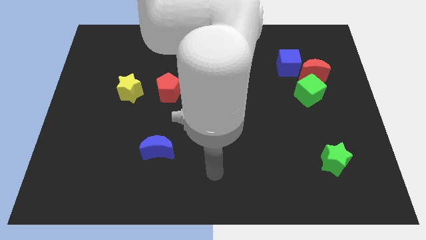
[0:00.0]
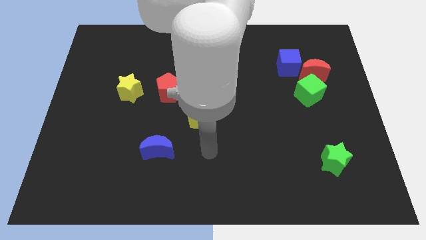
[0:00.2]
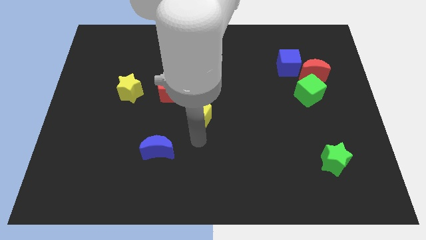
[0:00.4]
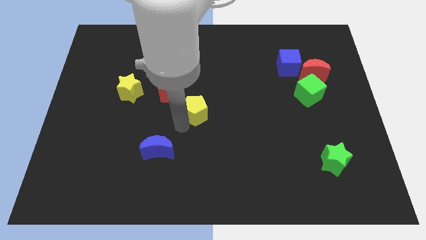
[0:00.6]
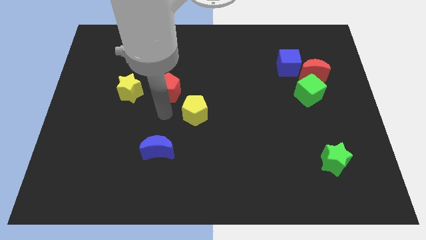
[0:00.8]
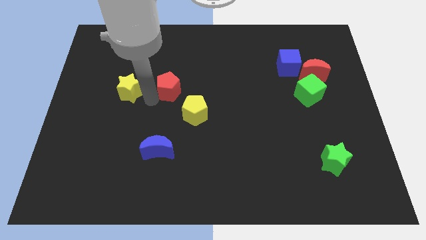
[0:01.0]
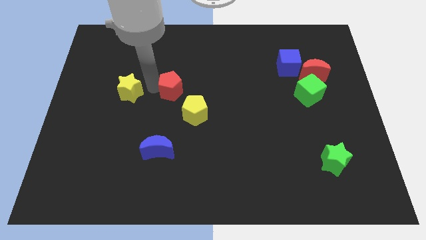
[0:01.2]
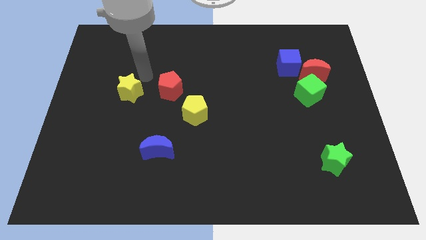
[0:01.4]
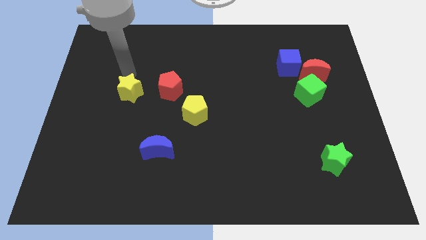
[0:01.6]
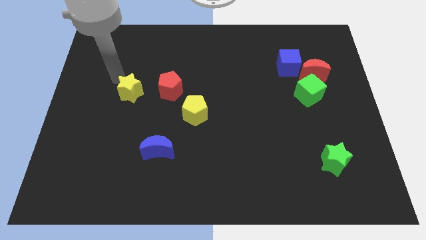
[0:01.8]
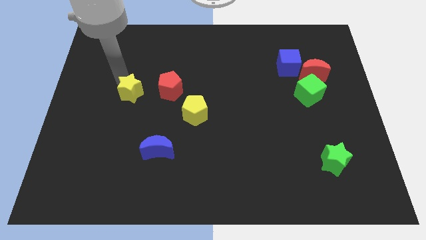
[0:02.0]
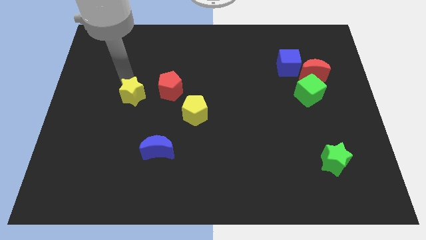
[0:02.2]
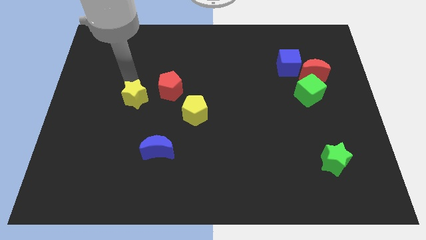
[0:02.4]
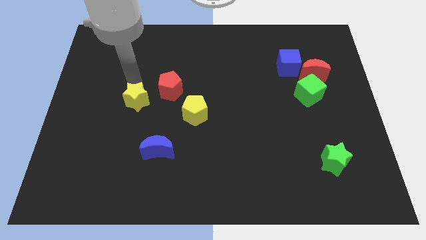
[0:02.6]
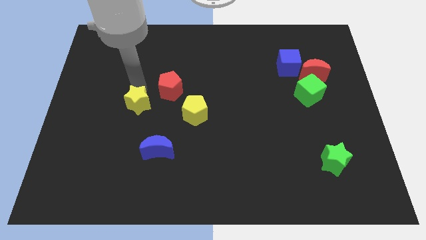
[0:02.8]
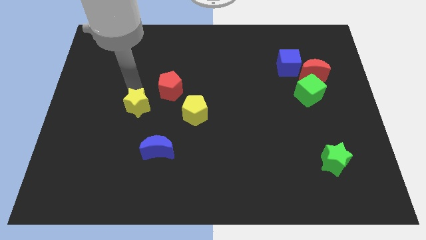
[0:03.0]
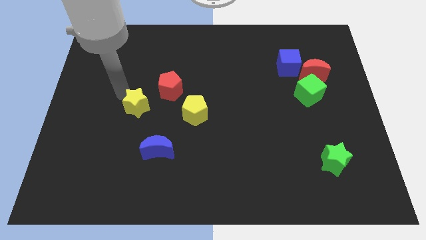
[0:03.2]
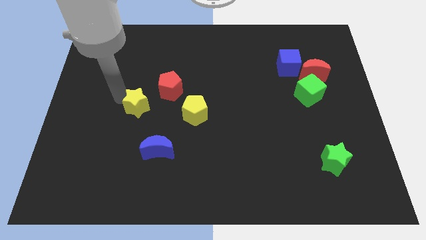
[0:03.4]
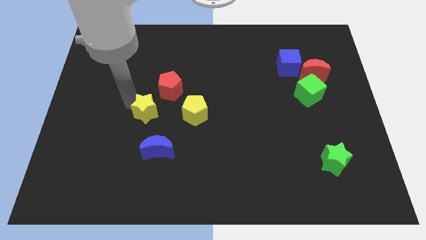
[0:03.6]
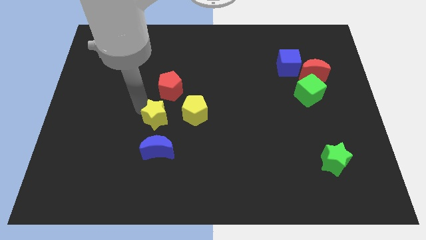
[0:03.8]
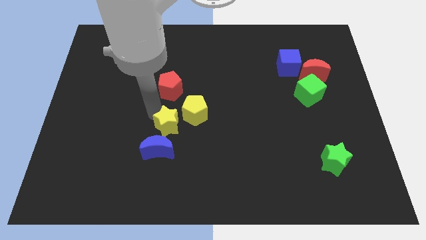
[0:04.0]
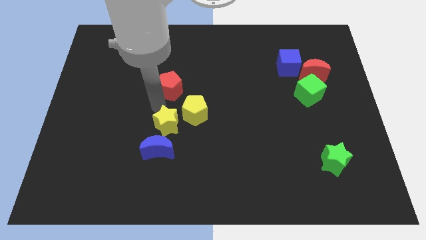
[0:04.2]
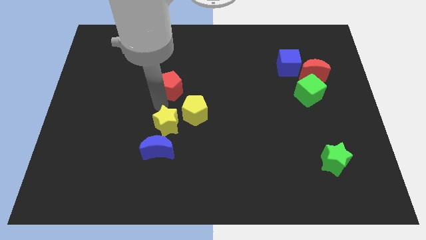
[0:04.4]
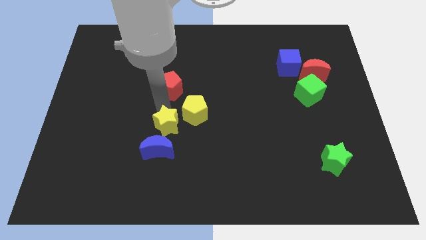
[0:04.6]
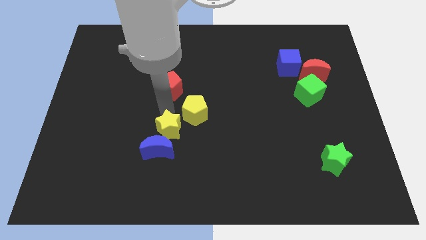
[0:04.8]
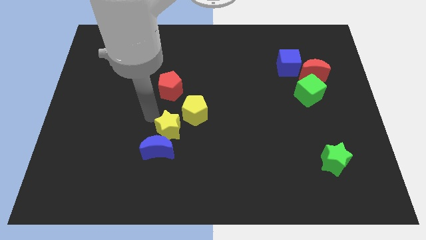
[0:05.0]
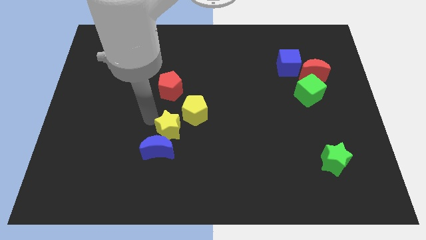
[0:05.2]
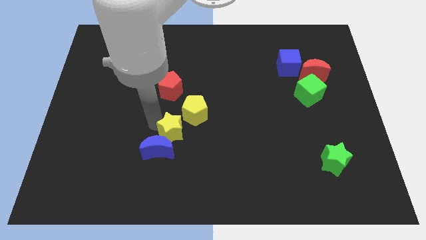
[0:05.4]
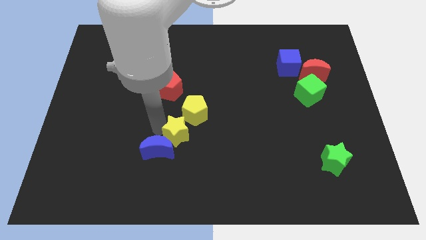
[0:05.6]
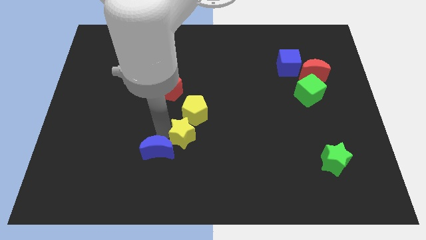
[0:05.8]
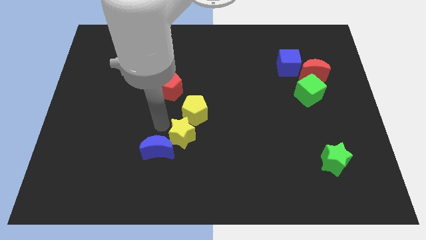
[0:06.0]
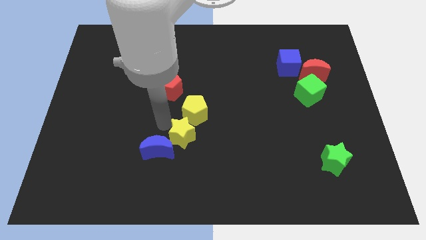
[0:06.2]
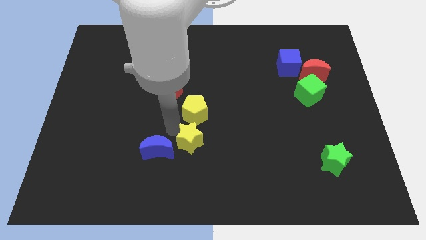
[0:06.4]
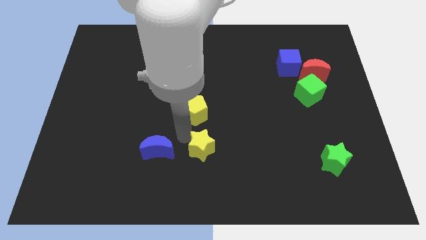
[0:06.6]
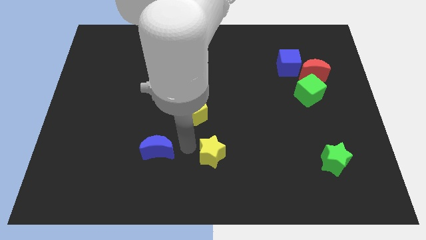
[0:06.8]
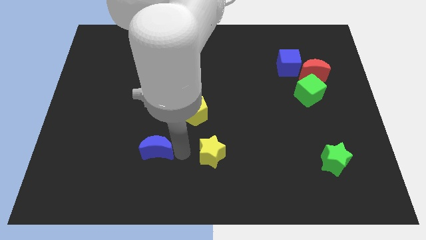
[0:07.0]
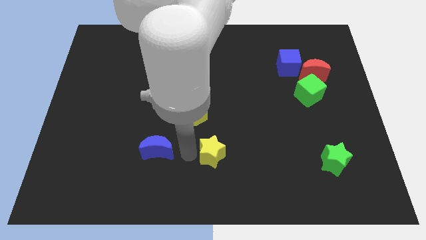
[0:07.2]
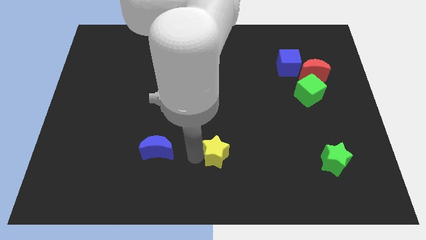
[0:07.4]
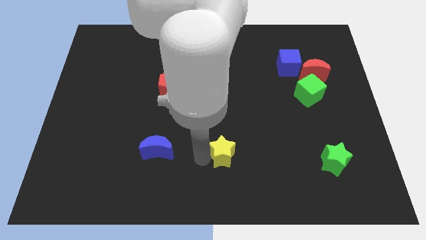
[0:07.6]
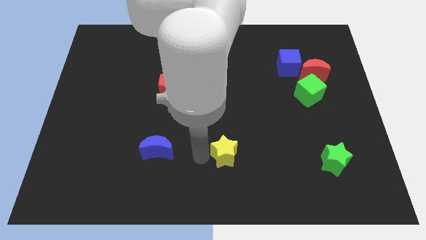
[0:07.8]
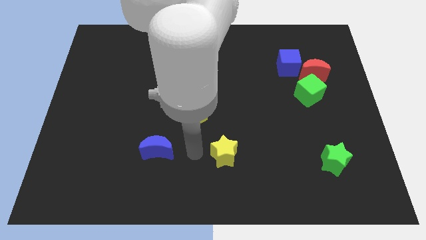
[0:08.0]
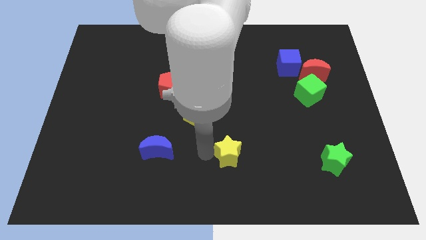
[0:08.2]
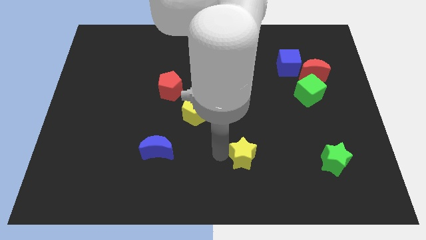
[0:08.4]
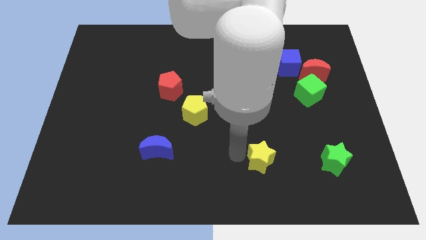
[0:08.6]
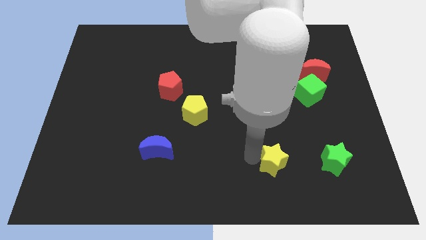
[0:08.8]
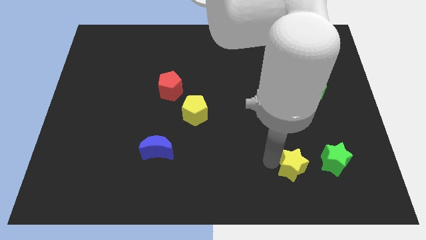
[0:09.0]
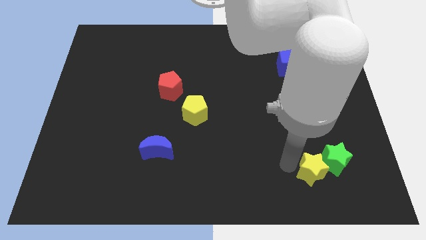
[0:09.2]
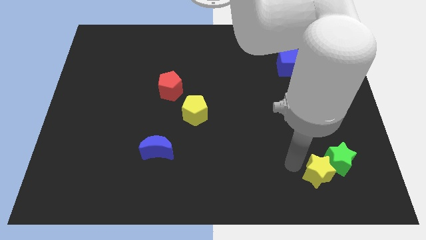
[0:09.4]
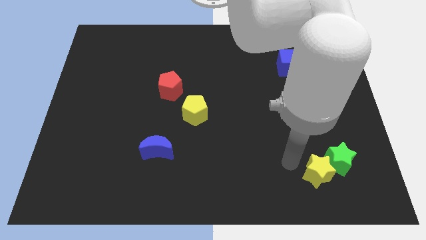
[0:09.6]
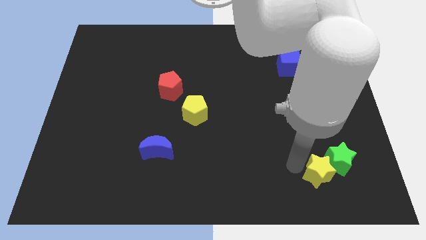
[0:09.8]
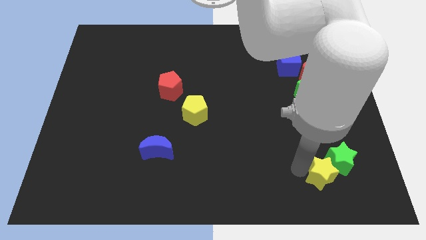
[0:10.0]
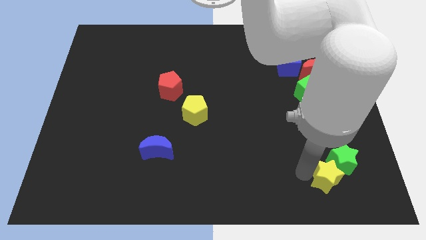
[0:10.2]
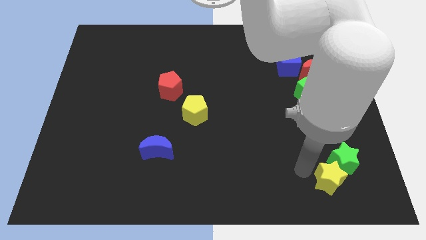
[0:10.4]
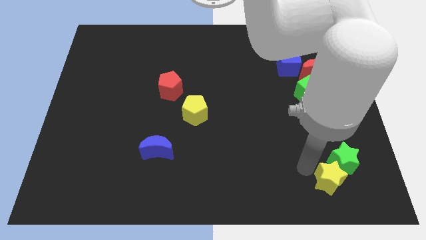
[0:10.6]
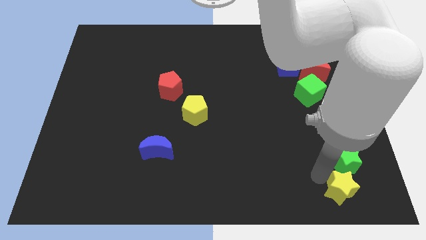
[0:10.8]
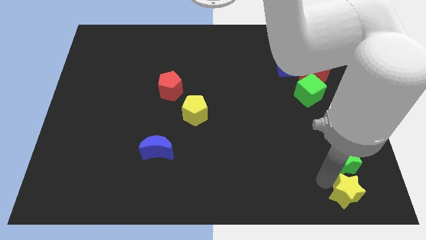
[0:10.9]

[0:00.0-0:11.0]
put the yellow star to the bottom right corner

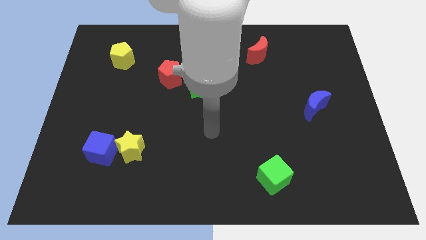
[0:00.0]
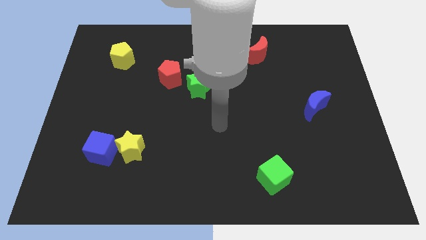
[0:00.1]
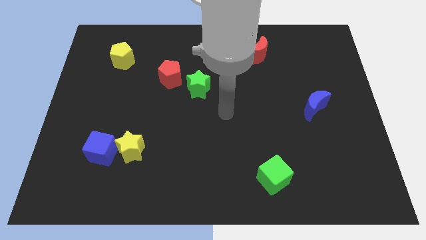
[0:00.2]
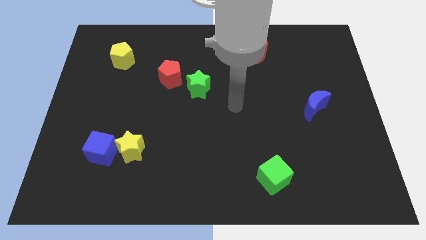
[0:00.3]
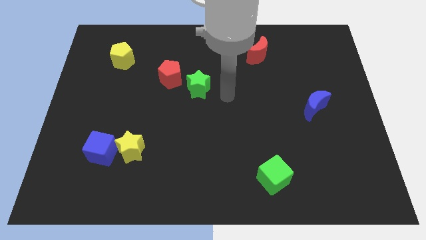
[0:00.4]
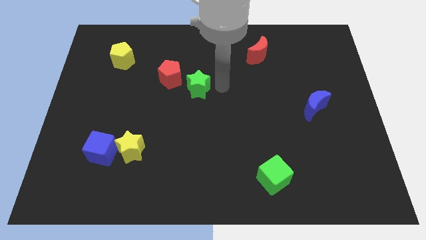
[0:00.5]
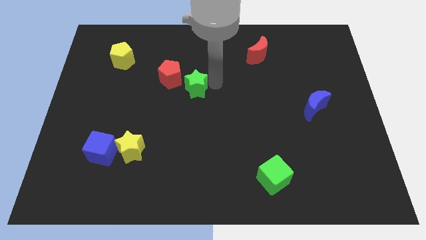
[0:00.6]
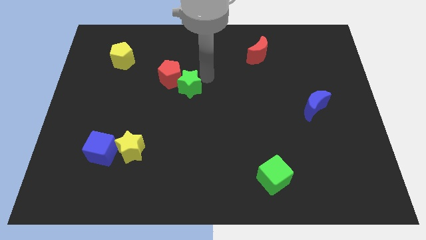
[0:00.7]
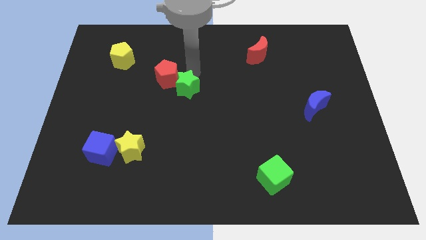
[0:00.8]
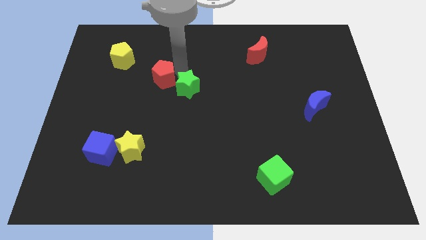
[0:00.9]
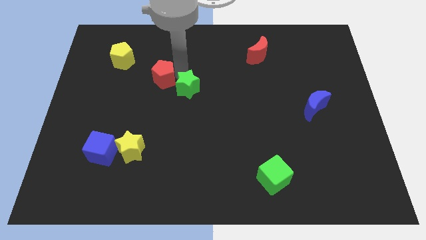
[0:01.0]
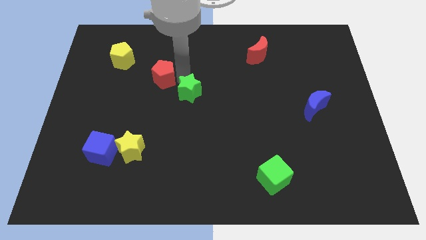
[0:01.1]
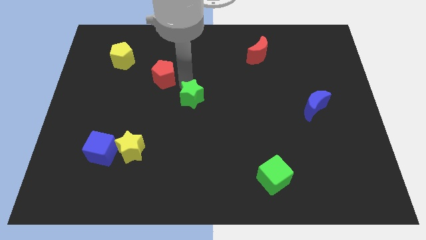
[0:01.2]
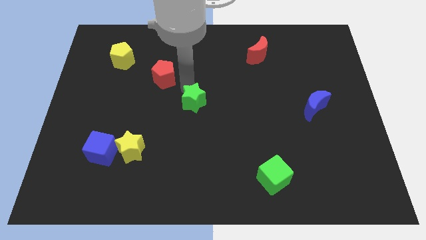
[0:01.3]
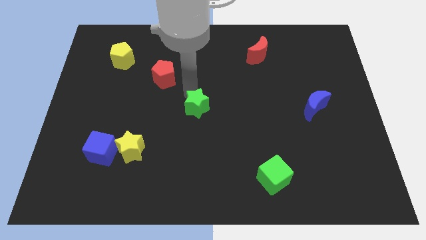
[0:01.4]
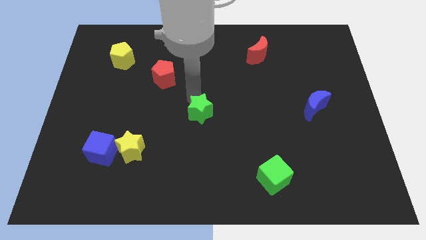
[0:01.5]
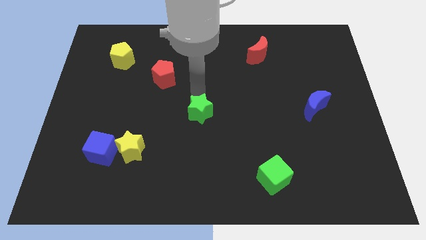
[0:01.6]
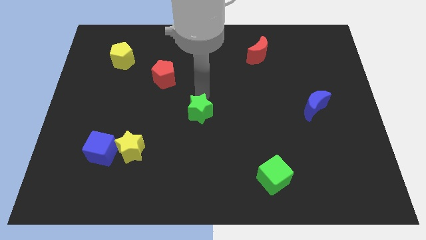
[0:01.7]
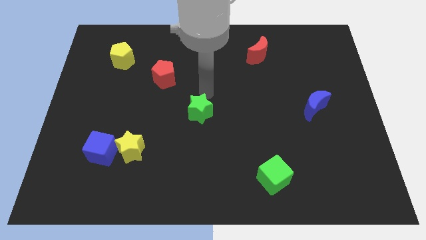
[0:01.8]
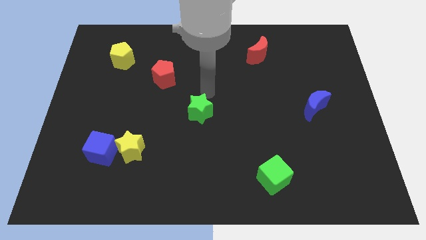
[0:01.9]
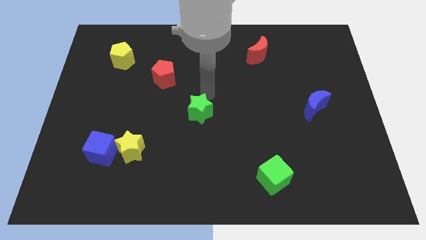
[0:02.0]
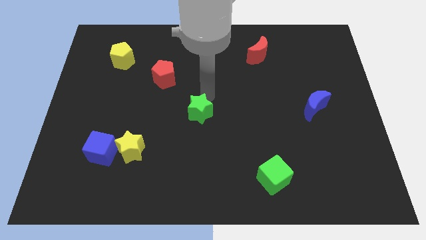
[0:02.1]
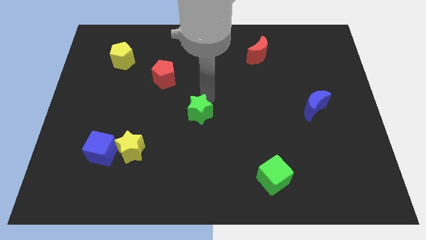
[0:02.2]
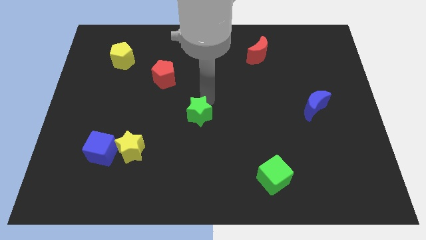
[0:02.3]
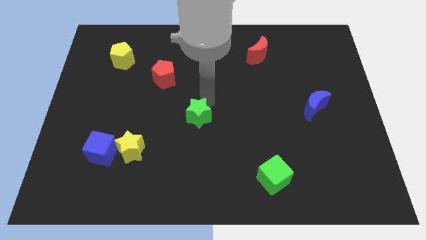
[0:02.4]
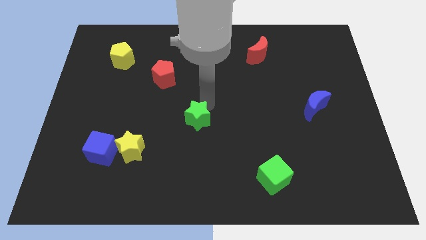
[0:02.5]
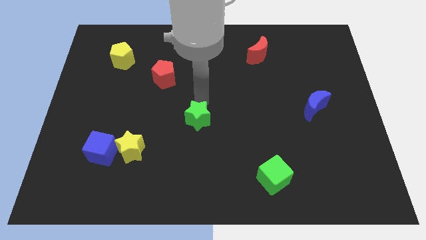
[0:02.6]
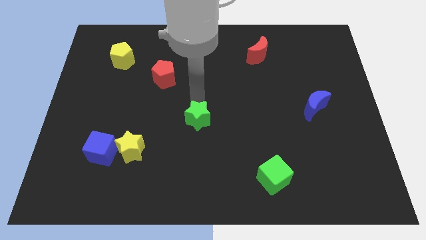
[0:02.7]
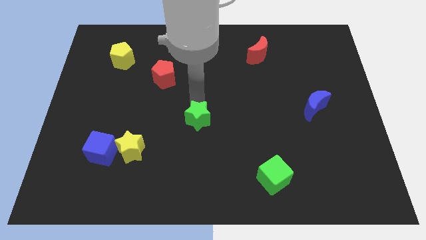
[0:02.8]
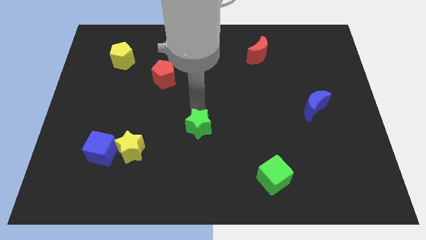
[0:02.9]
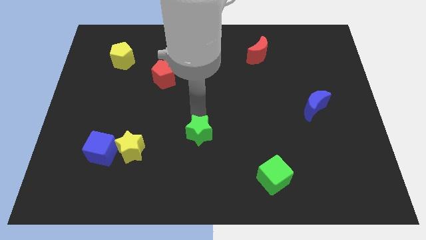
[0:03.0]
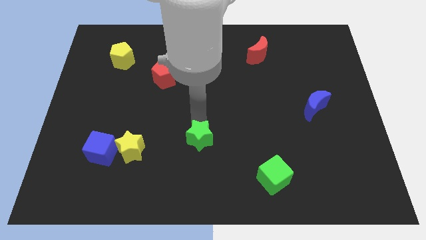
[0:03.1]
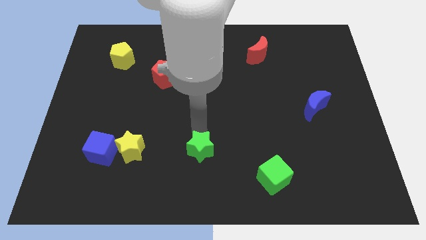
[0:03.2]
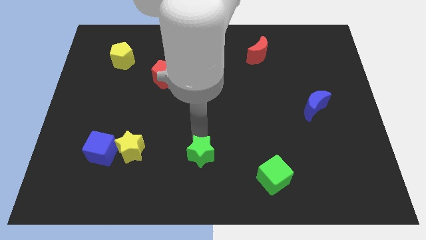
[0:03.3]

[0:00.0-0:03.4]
slide the green star to the bottom side
